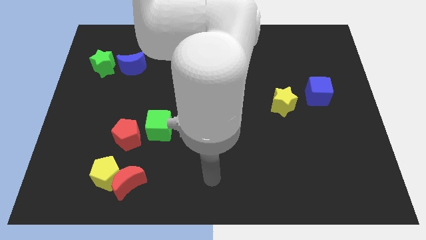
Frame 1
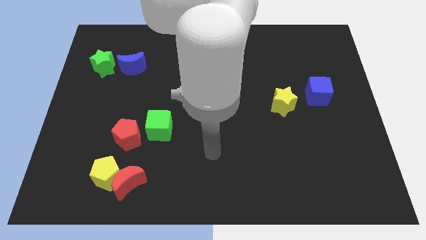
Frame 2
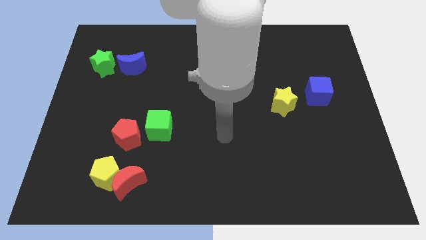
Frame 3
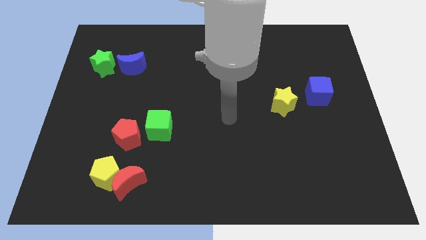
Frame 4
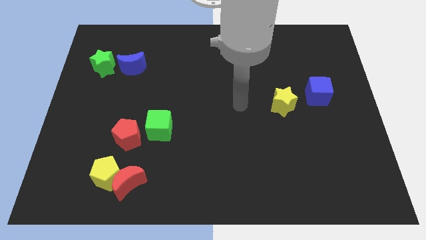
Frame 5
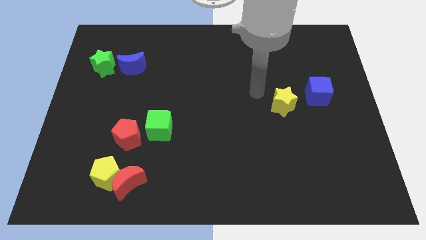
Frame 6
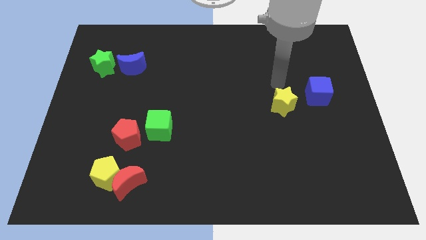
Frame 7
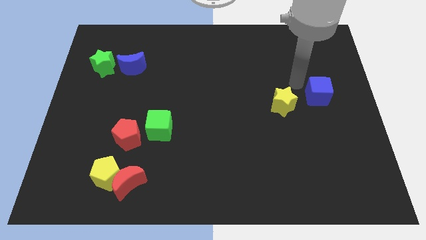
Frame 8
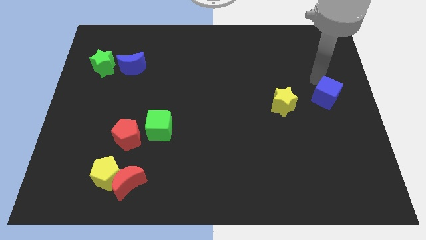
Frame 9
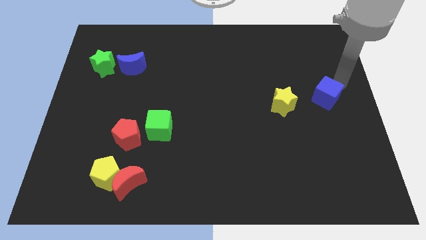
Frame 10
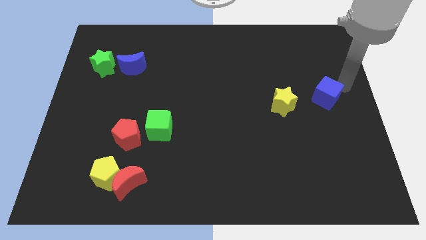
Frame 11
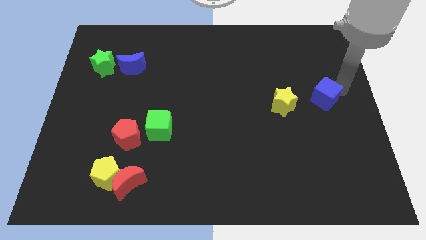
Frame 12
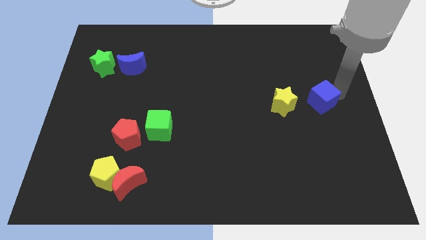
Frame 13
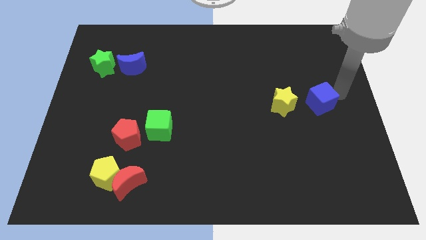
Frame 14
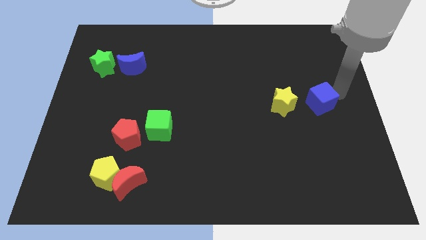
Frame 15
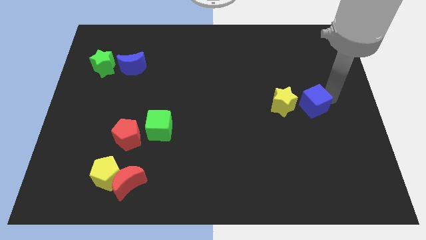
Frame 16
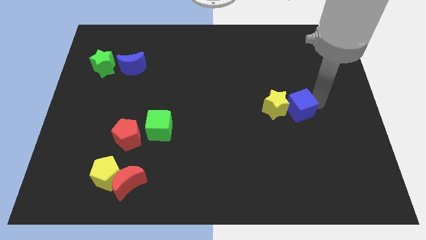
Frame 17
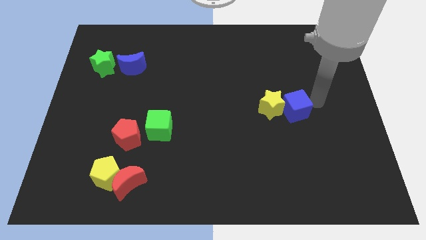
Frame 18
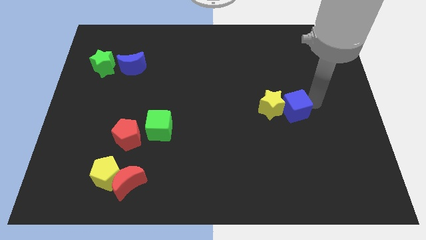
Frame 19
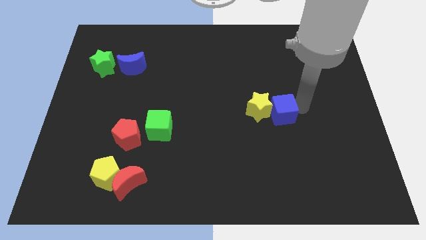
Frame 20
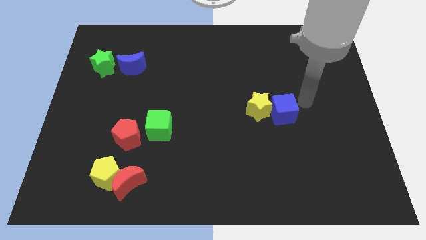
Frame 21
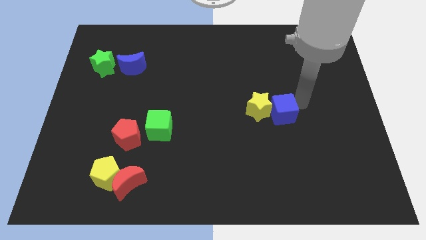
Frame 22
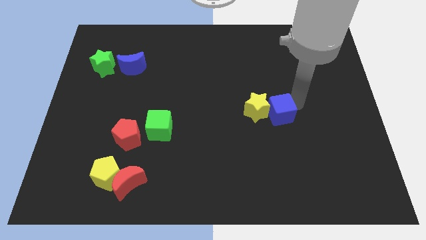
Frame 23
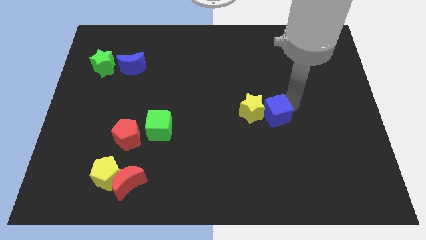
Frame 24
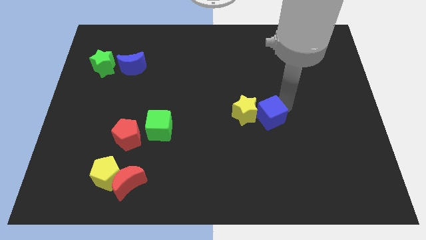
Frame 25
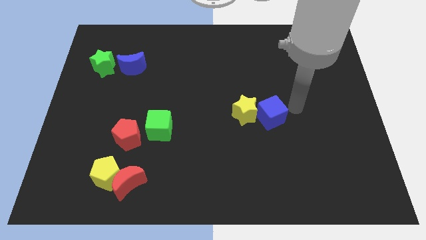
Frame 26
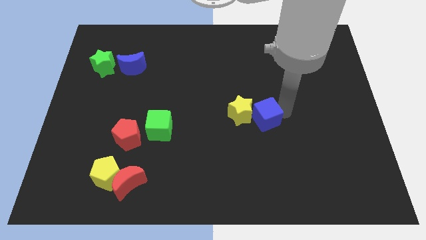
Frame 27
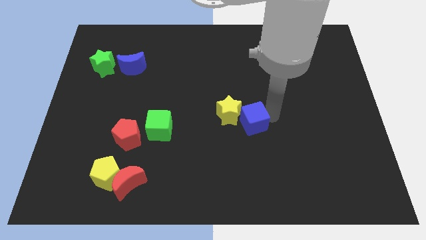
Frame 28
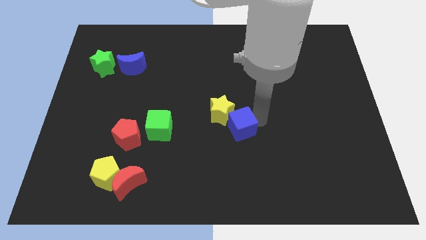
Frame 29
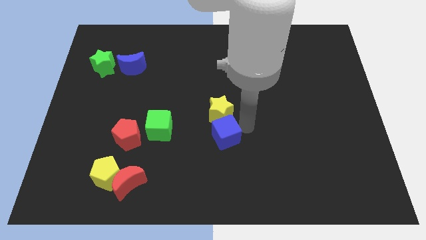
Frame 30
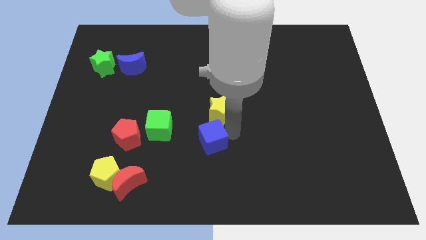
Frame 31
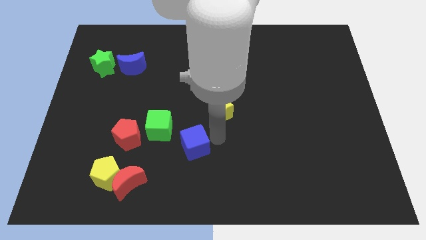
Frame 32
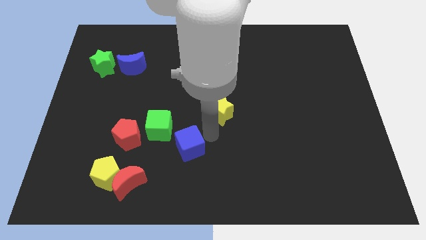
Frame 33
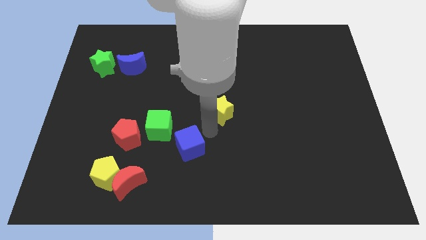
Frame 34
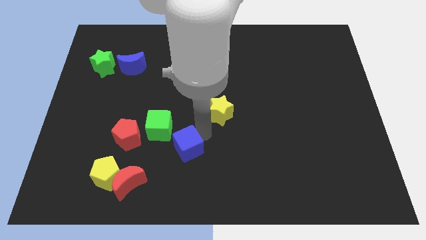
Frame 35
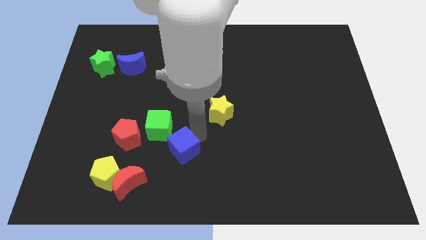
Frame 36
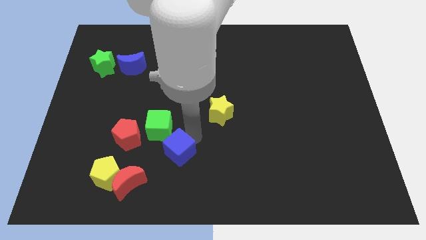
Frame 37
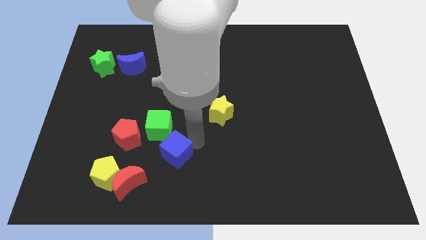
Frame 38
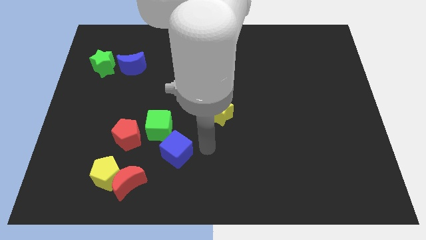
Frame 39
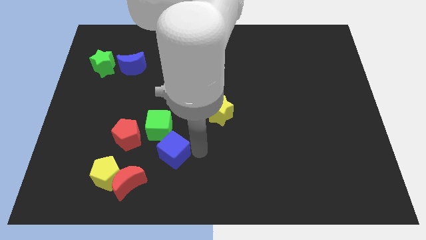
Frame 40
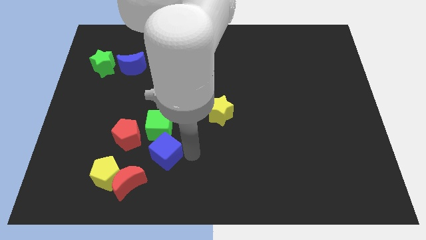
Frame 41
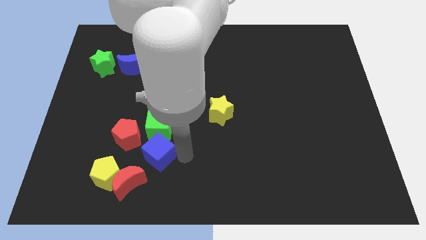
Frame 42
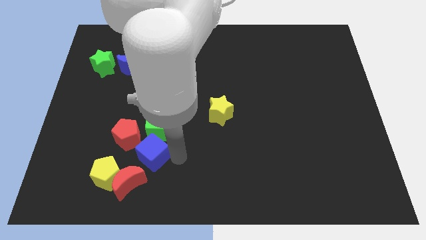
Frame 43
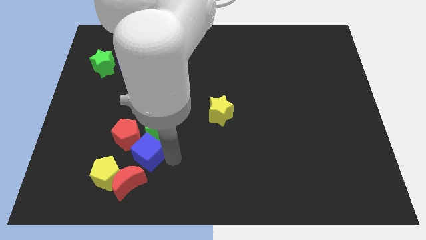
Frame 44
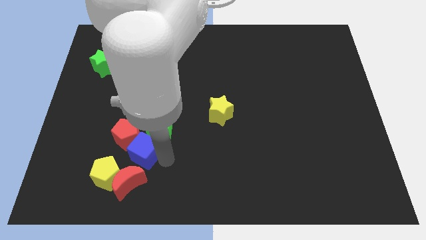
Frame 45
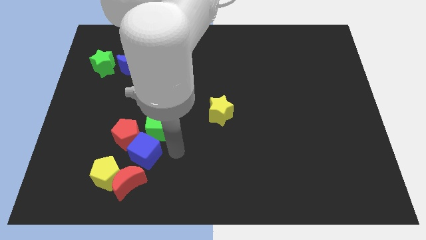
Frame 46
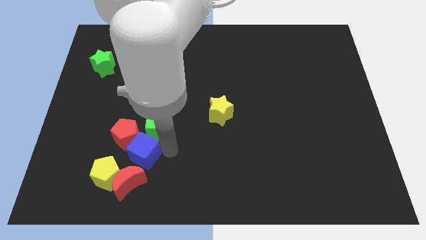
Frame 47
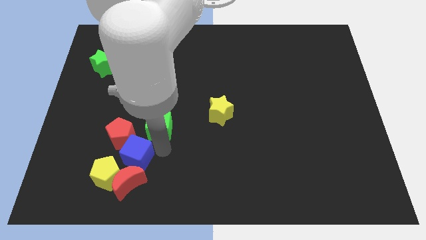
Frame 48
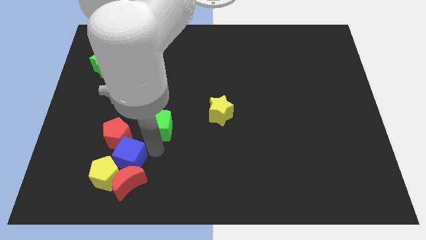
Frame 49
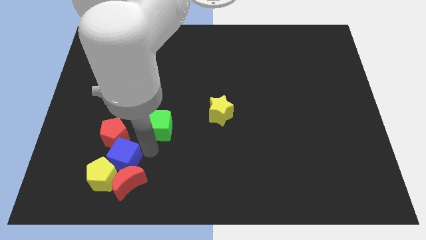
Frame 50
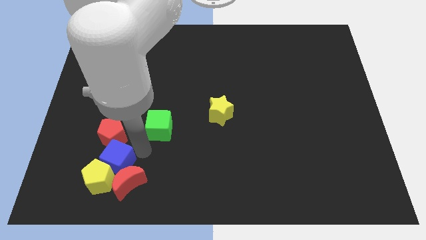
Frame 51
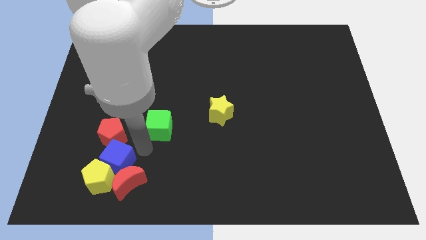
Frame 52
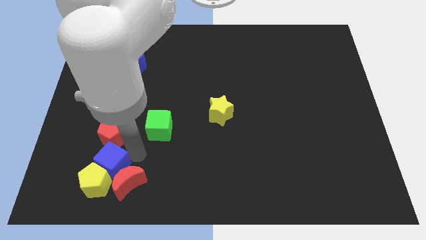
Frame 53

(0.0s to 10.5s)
move the blue cube just left of the red moon

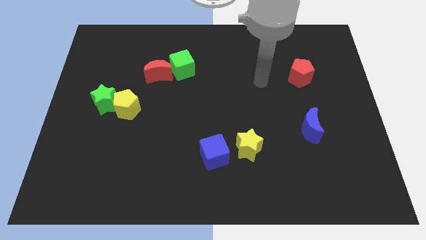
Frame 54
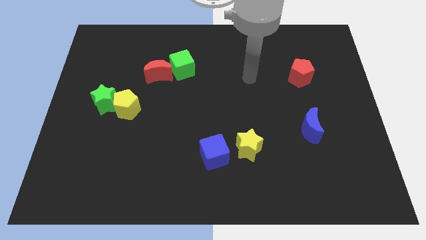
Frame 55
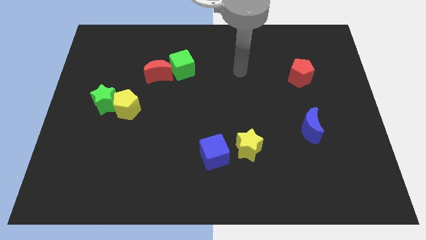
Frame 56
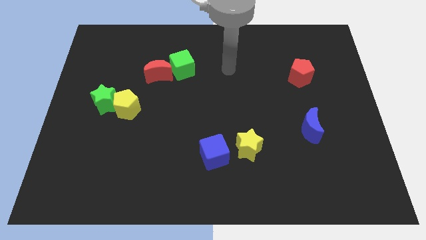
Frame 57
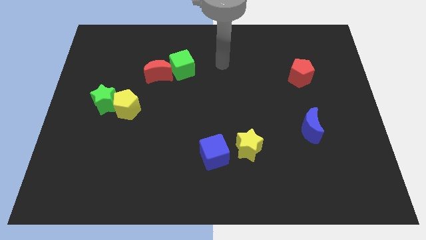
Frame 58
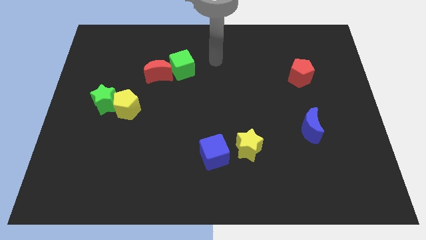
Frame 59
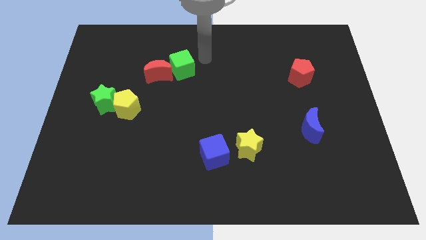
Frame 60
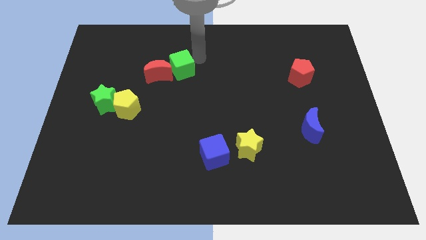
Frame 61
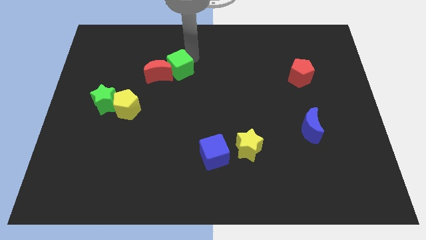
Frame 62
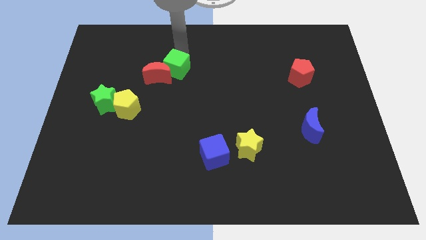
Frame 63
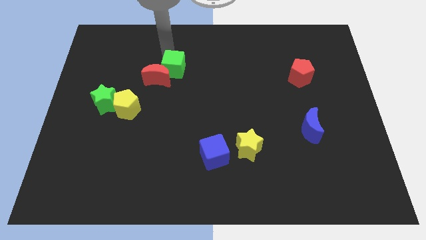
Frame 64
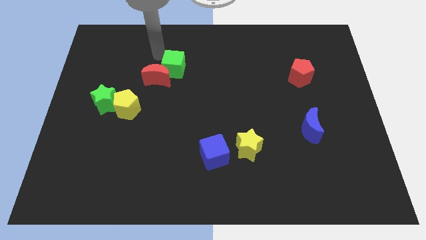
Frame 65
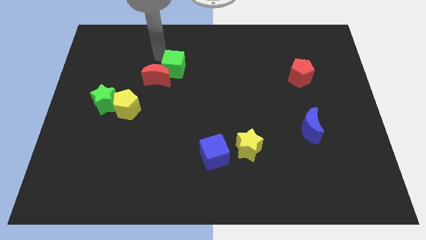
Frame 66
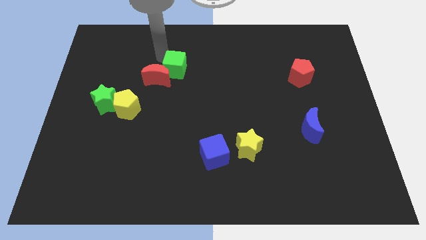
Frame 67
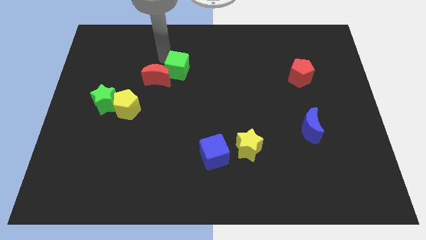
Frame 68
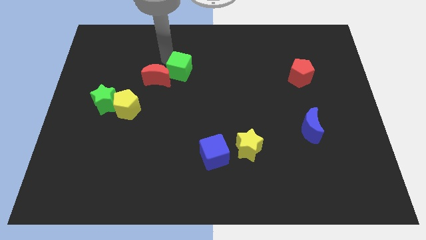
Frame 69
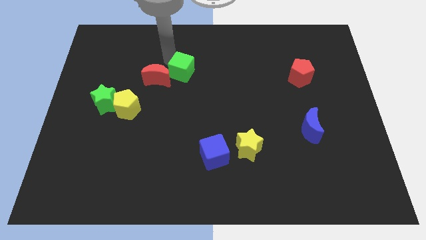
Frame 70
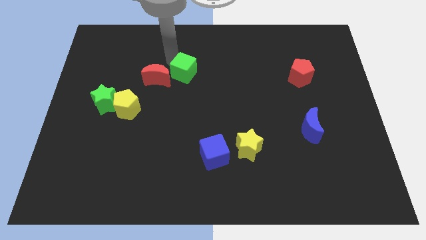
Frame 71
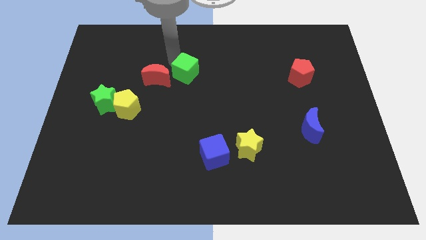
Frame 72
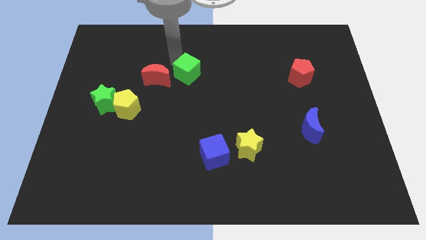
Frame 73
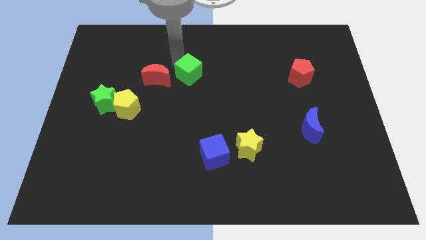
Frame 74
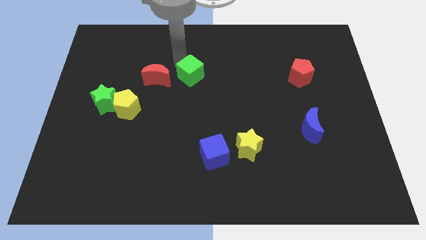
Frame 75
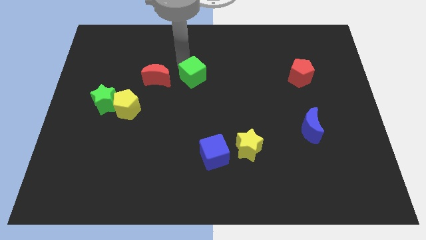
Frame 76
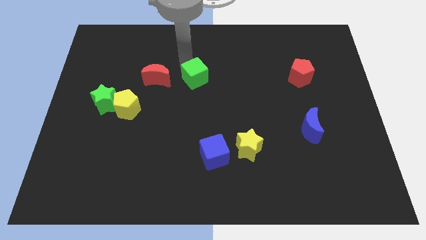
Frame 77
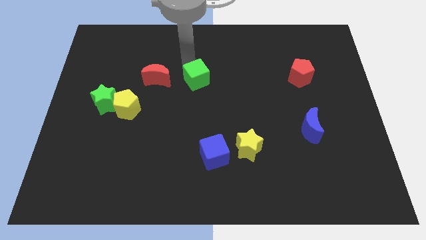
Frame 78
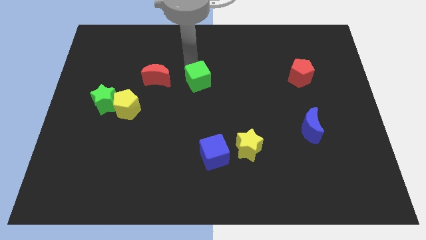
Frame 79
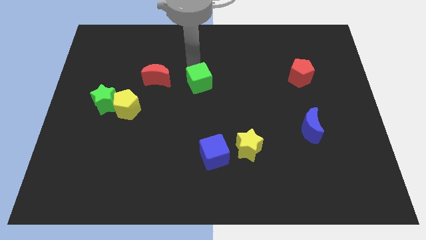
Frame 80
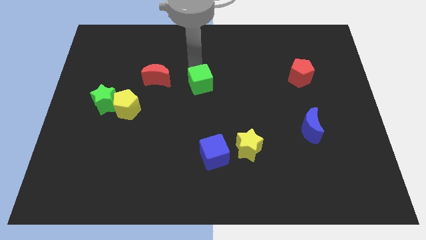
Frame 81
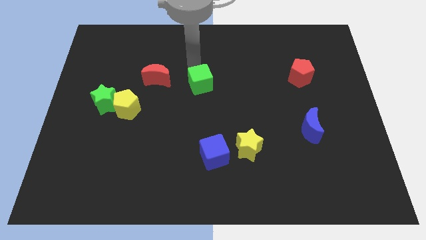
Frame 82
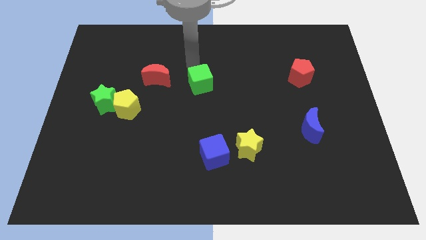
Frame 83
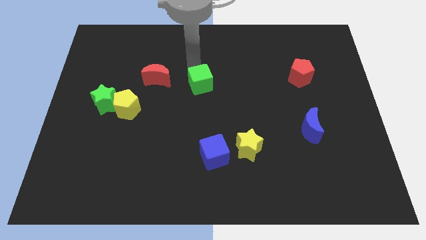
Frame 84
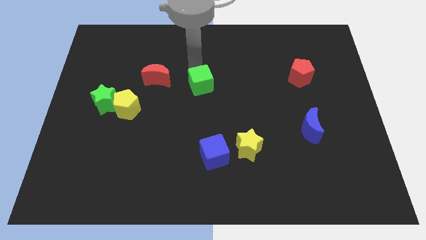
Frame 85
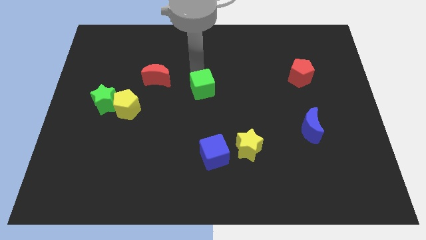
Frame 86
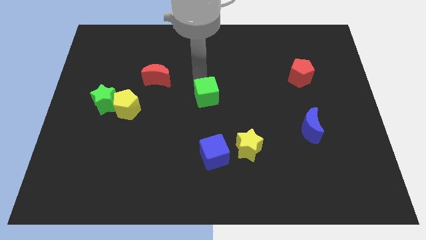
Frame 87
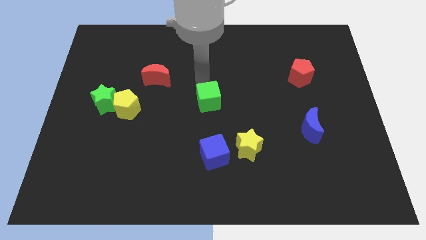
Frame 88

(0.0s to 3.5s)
put the green cube to the top side of the blue cube
